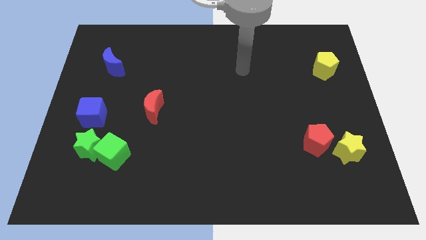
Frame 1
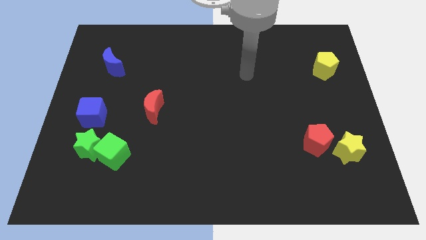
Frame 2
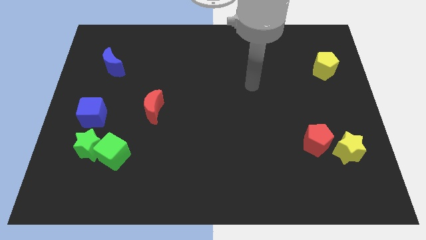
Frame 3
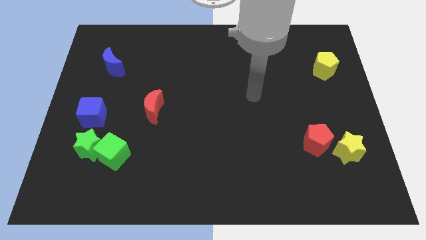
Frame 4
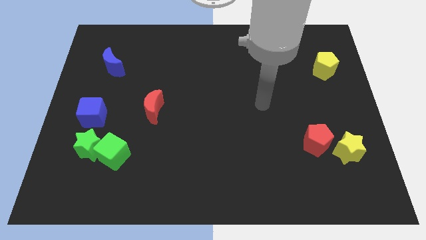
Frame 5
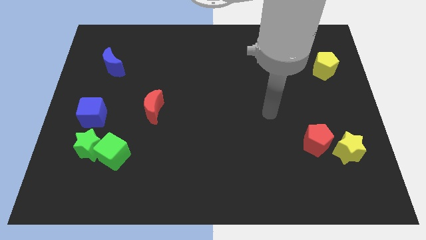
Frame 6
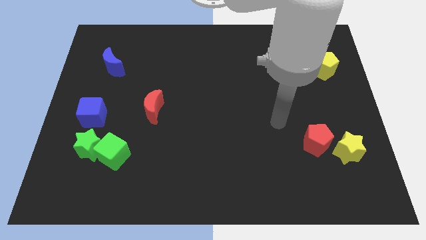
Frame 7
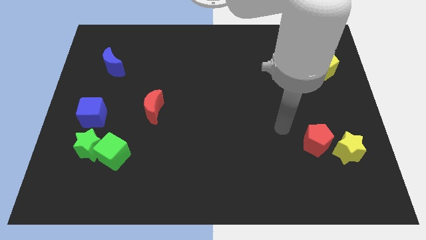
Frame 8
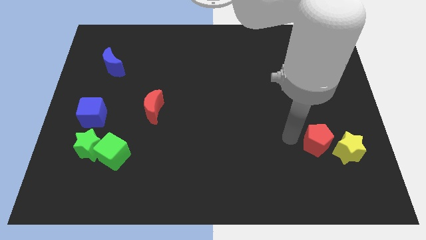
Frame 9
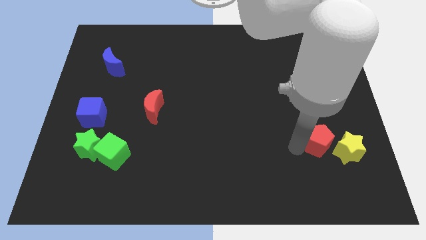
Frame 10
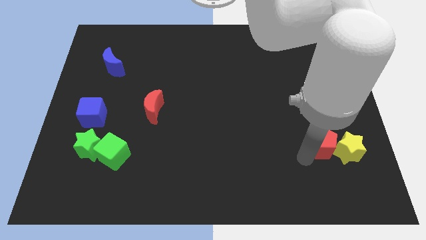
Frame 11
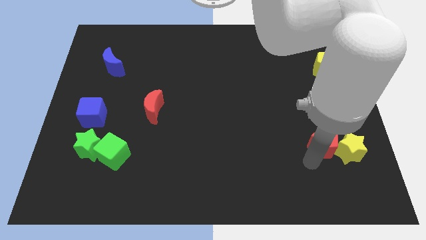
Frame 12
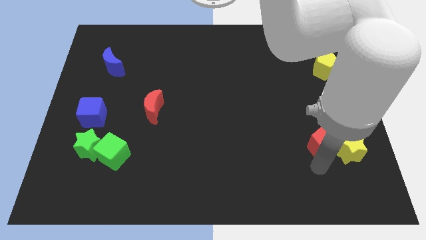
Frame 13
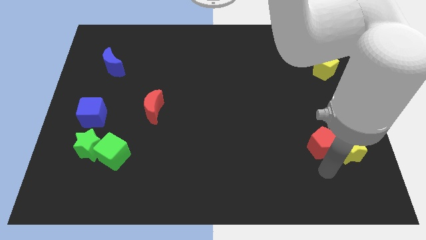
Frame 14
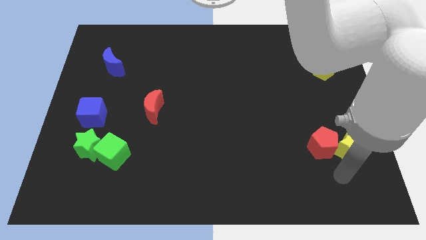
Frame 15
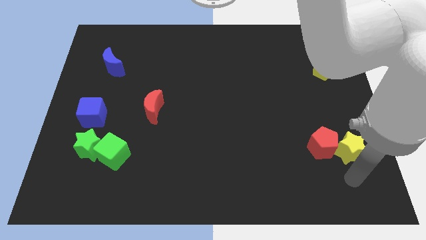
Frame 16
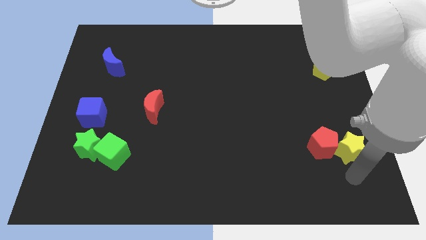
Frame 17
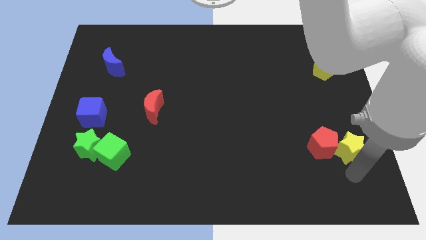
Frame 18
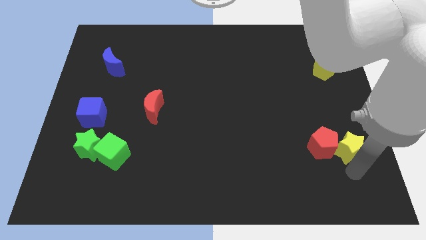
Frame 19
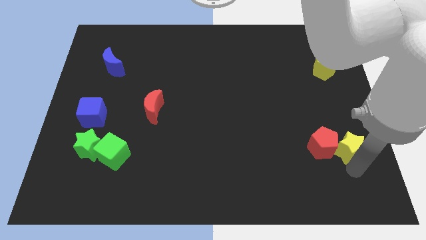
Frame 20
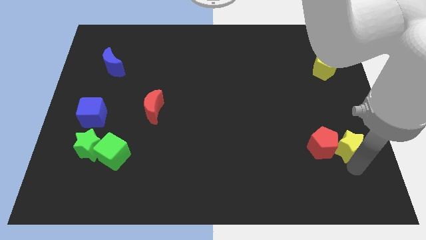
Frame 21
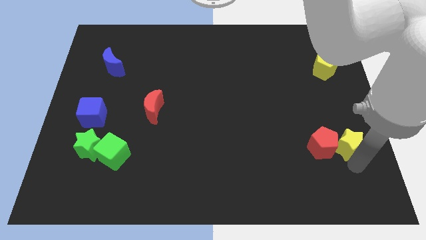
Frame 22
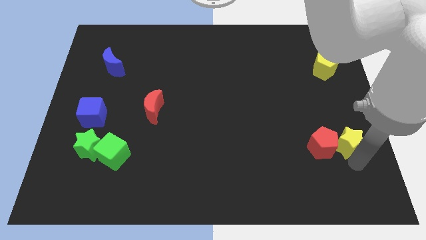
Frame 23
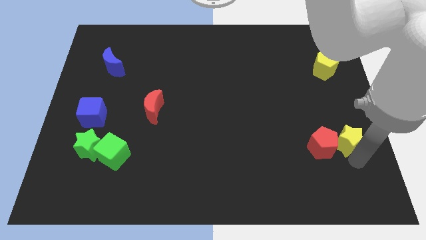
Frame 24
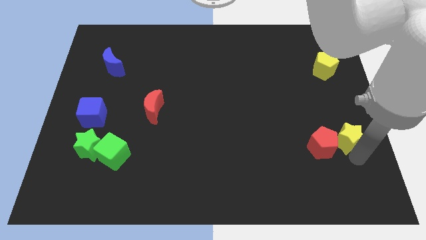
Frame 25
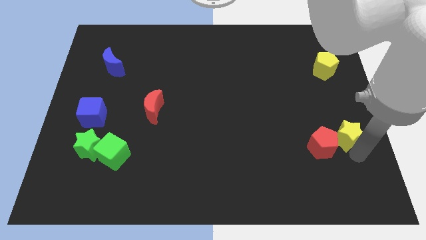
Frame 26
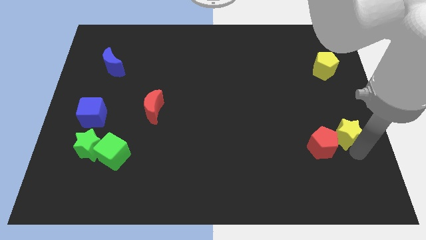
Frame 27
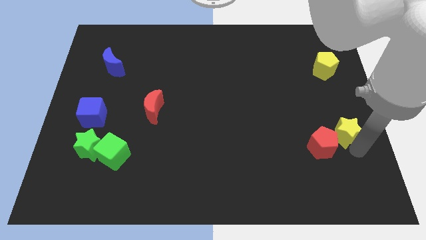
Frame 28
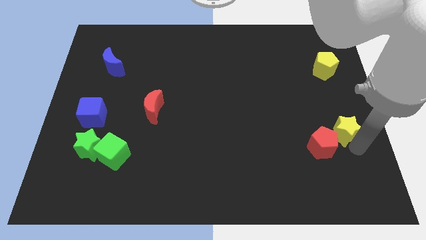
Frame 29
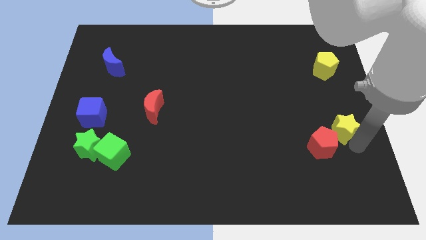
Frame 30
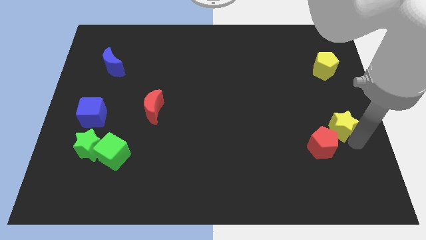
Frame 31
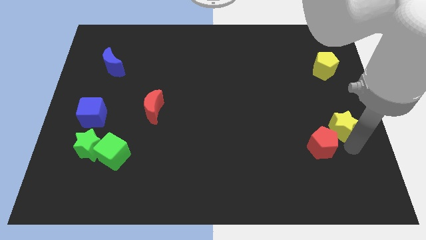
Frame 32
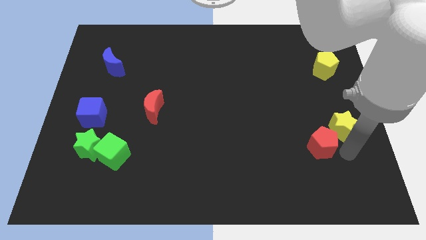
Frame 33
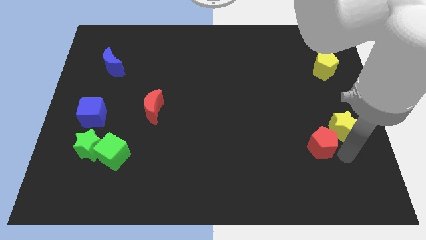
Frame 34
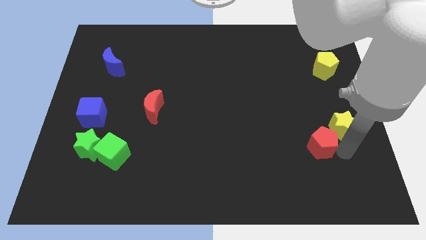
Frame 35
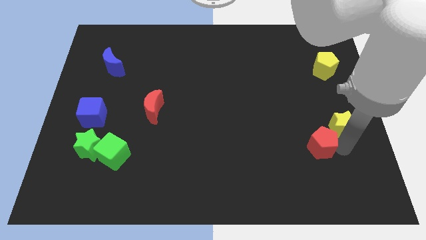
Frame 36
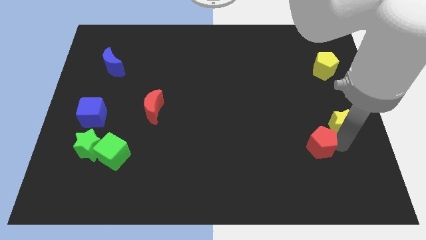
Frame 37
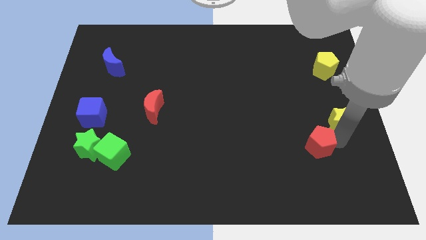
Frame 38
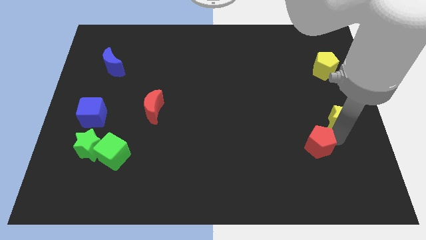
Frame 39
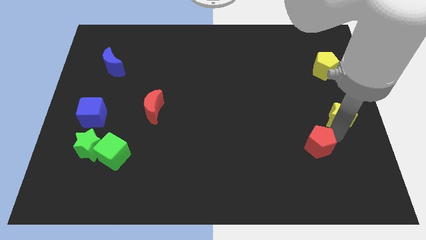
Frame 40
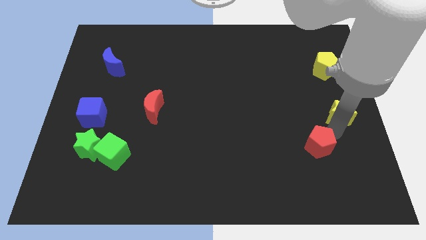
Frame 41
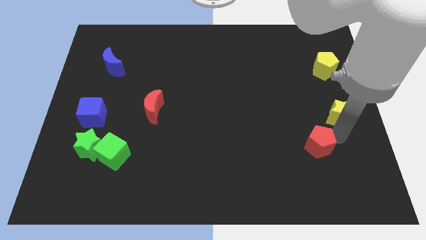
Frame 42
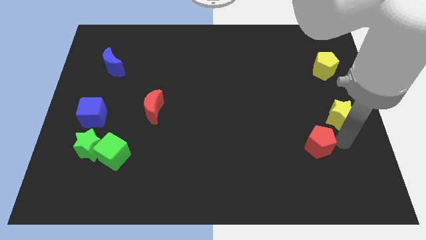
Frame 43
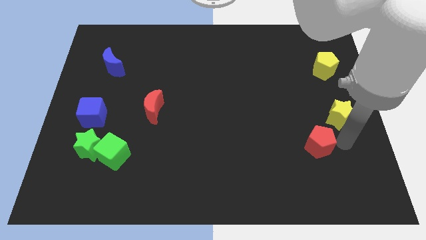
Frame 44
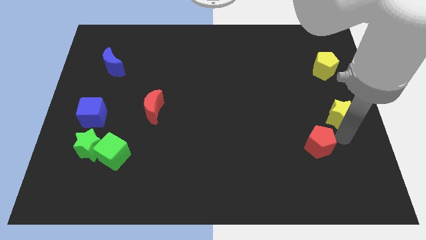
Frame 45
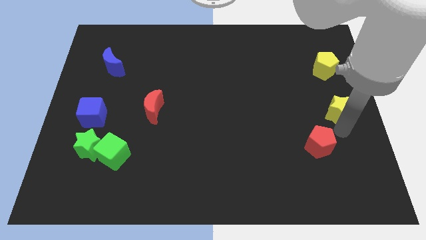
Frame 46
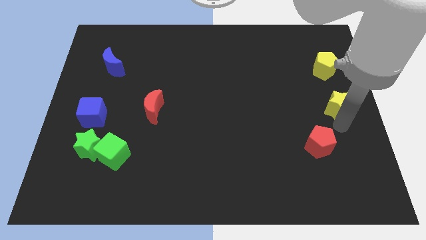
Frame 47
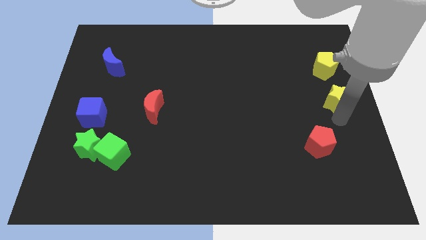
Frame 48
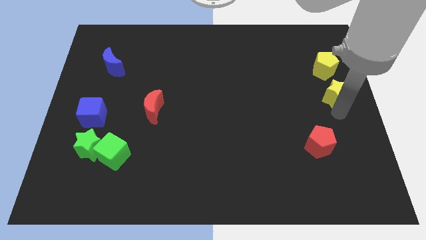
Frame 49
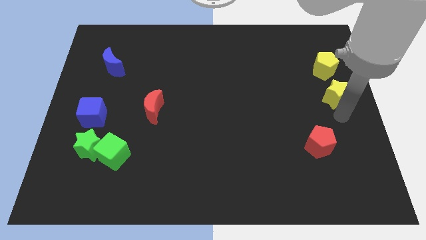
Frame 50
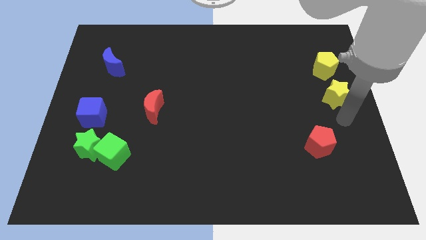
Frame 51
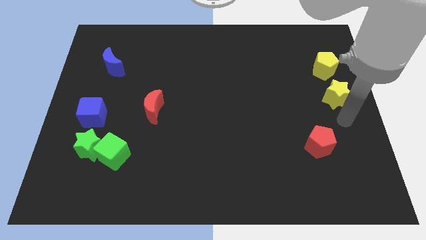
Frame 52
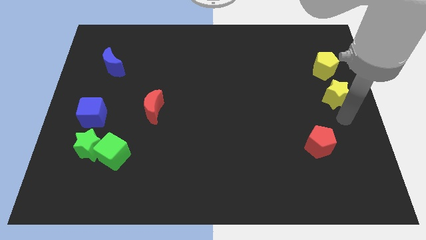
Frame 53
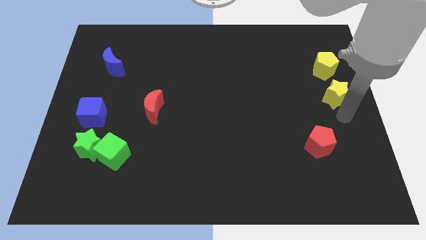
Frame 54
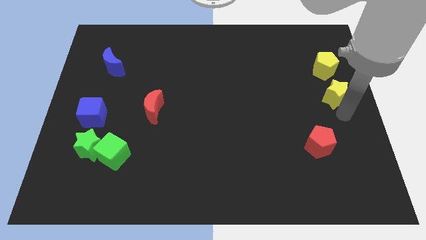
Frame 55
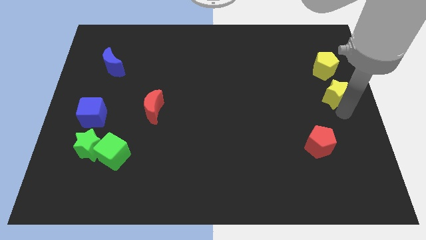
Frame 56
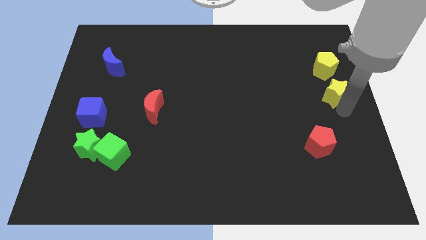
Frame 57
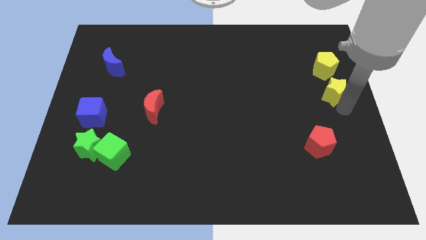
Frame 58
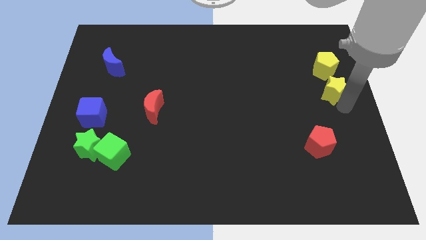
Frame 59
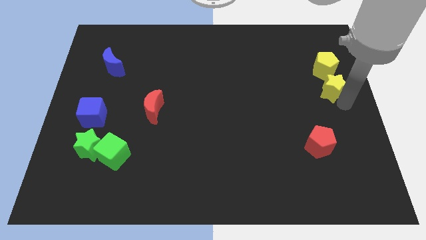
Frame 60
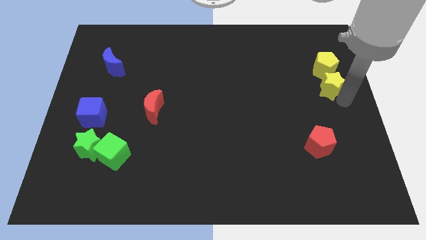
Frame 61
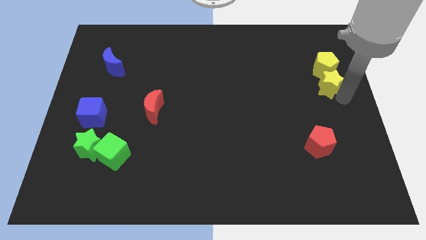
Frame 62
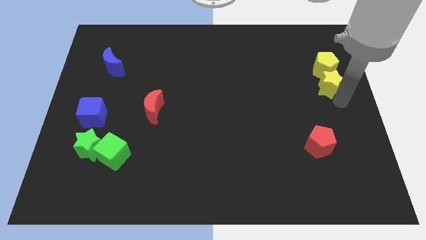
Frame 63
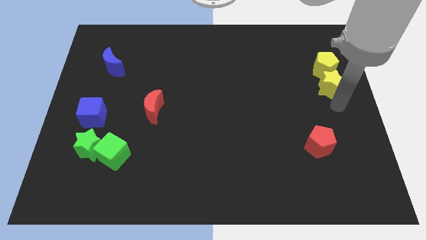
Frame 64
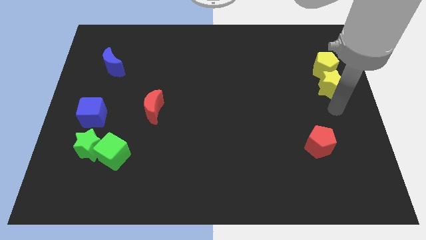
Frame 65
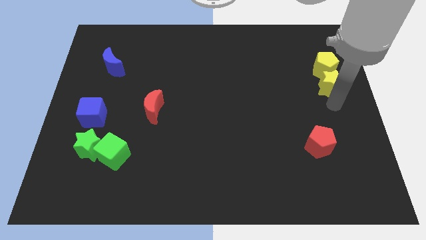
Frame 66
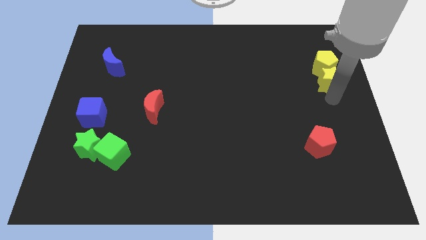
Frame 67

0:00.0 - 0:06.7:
put the yellow star next to the yellow pentagon
